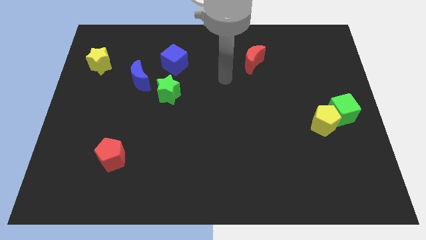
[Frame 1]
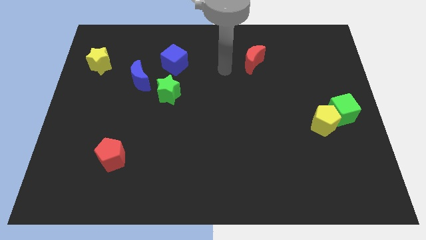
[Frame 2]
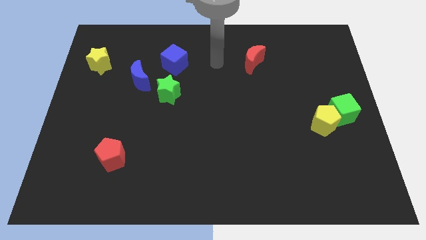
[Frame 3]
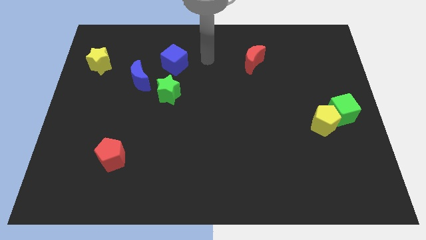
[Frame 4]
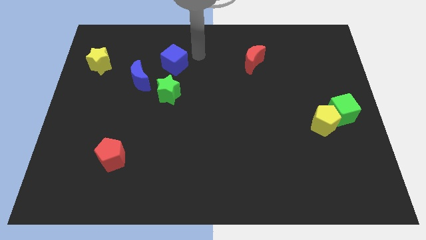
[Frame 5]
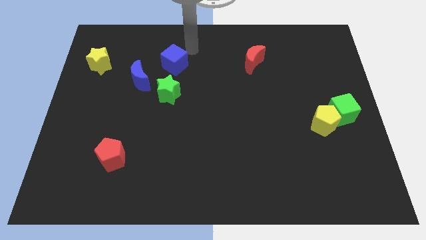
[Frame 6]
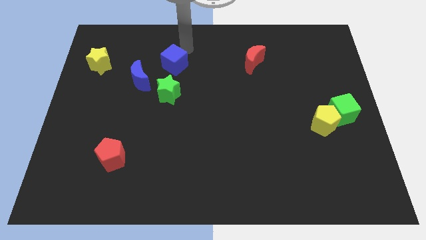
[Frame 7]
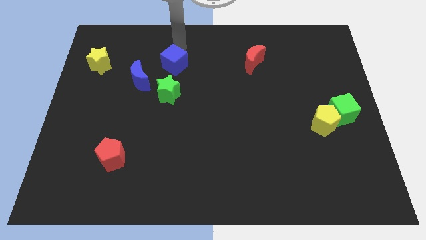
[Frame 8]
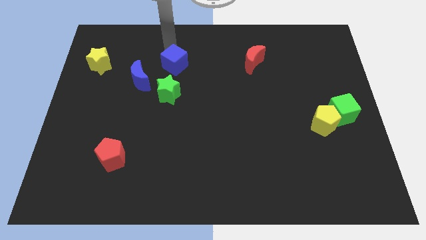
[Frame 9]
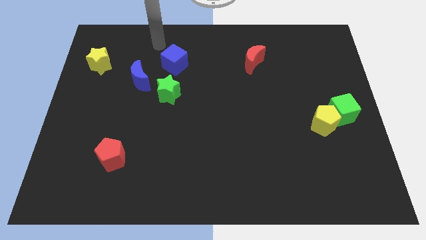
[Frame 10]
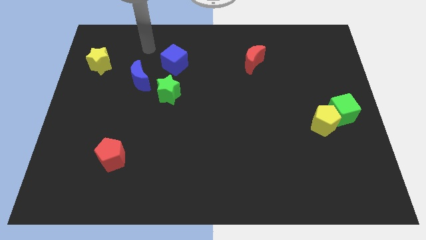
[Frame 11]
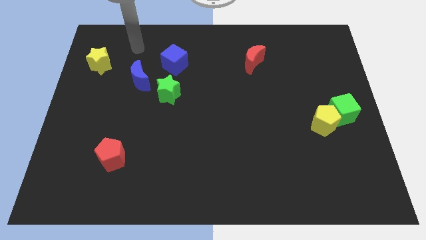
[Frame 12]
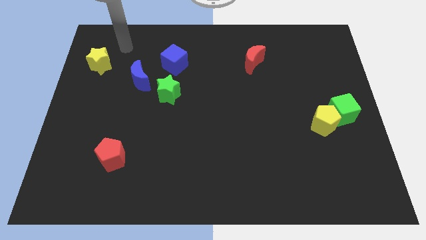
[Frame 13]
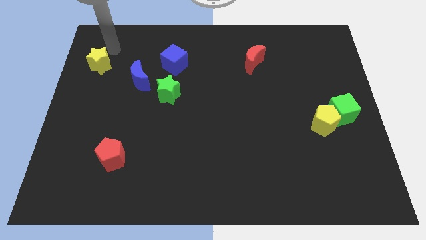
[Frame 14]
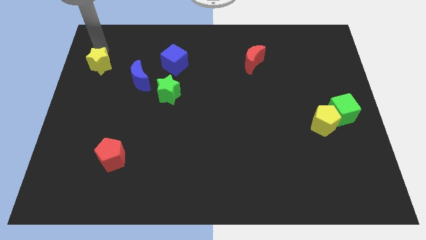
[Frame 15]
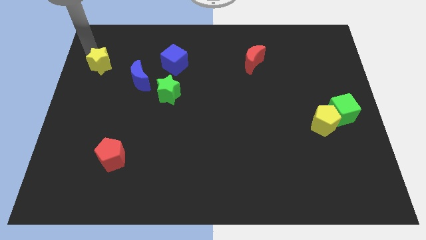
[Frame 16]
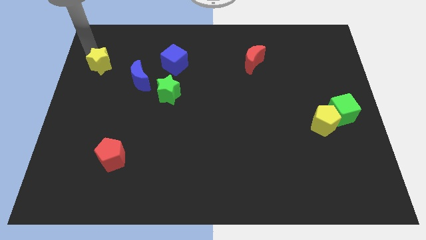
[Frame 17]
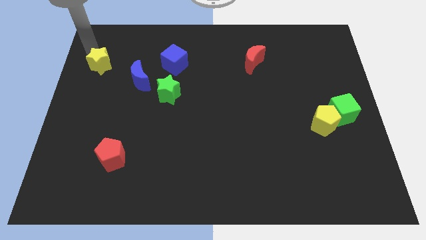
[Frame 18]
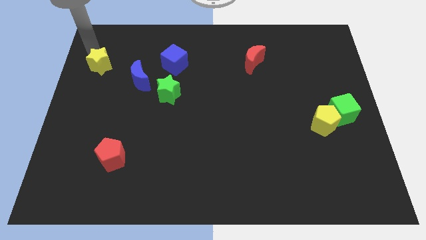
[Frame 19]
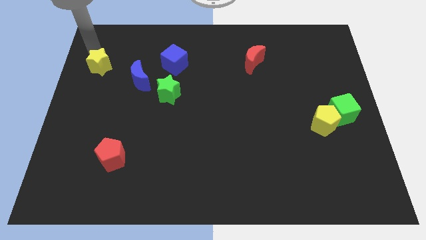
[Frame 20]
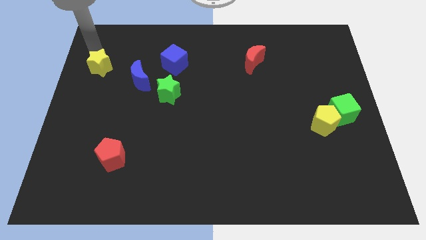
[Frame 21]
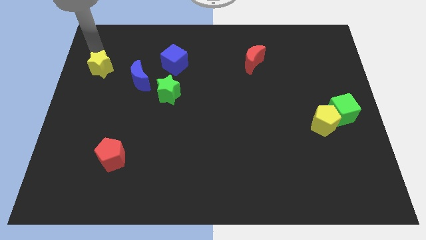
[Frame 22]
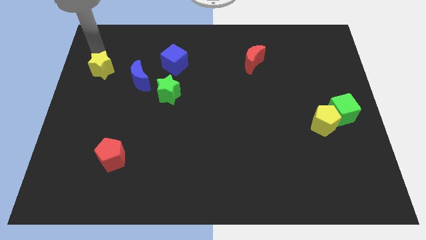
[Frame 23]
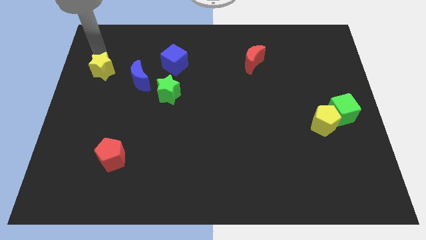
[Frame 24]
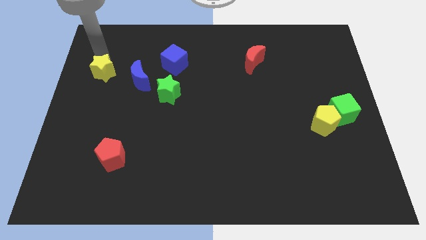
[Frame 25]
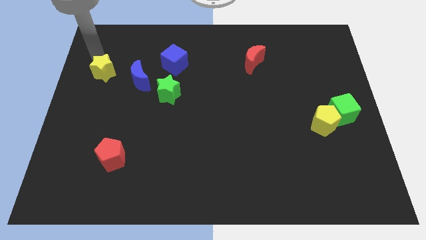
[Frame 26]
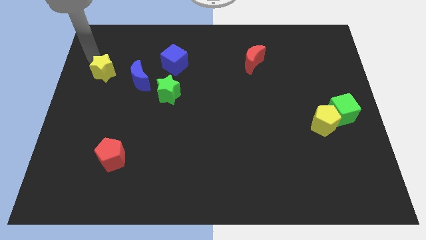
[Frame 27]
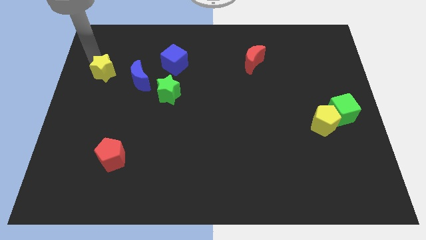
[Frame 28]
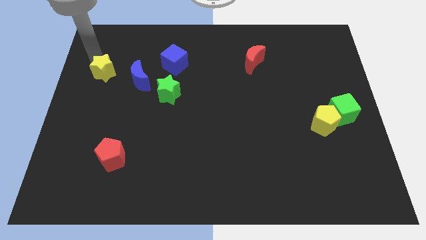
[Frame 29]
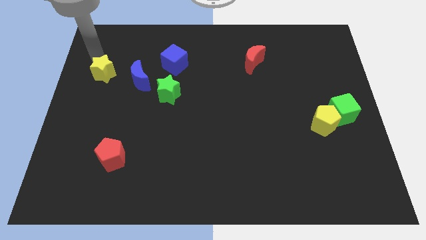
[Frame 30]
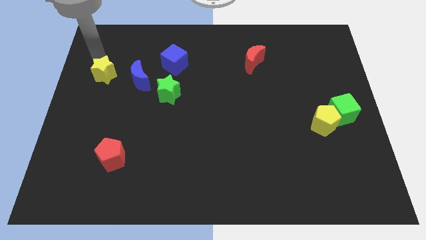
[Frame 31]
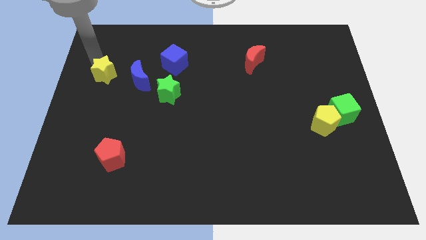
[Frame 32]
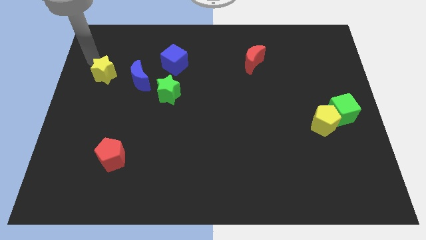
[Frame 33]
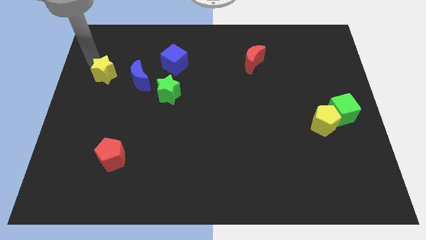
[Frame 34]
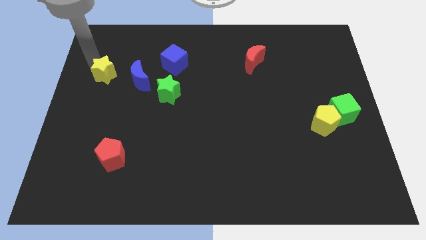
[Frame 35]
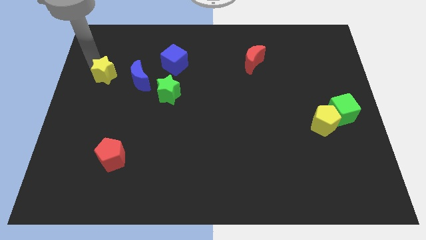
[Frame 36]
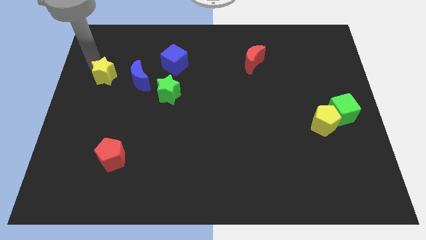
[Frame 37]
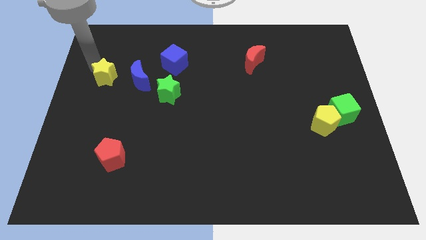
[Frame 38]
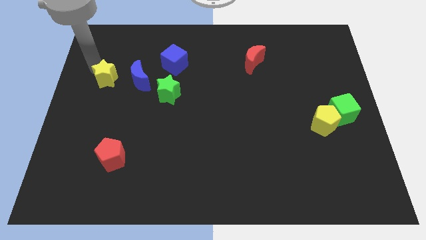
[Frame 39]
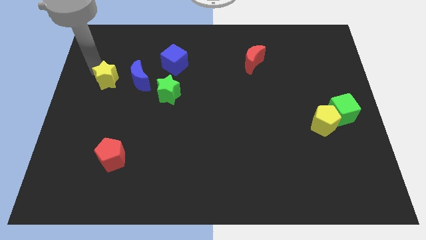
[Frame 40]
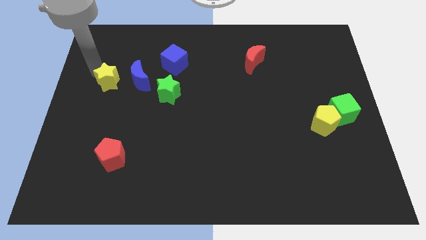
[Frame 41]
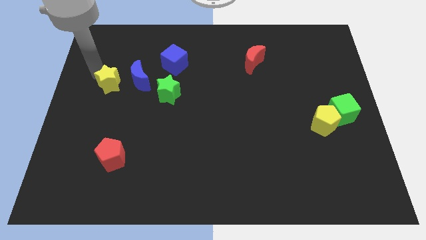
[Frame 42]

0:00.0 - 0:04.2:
slightly push the yellow star diagonally down and to the right

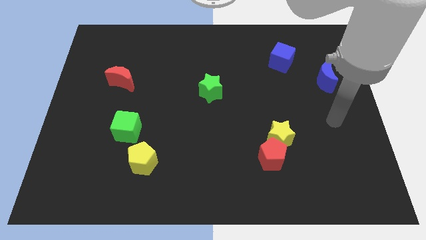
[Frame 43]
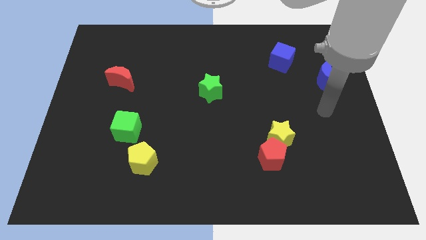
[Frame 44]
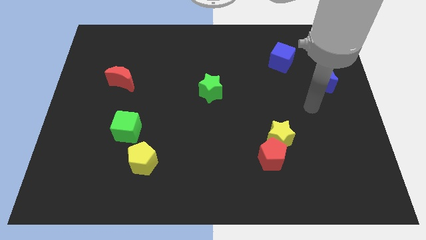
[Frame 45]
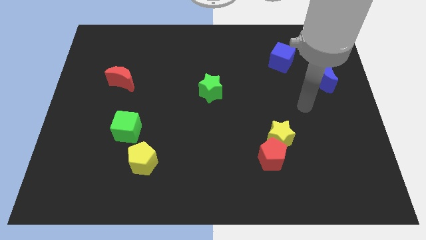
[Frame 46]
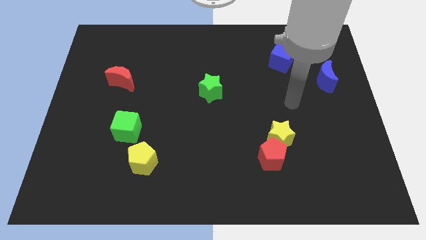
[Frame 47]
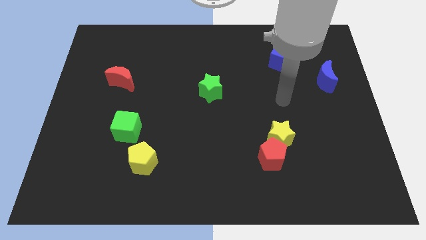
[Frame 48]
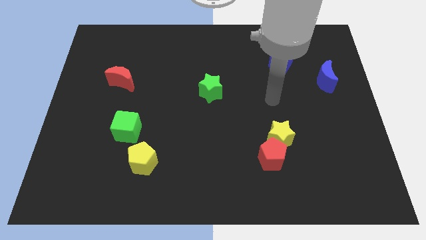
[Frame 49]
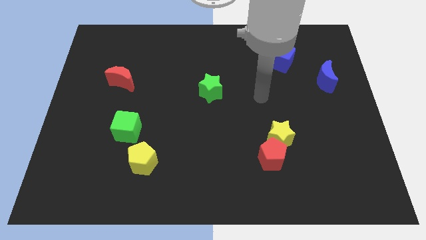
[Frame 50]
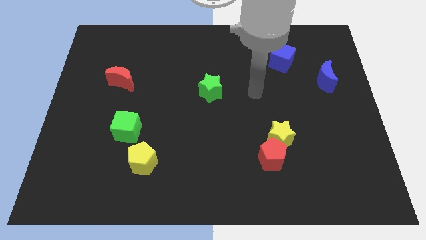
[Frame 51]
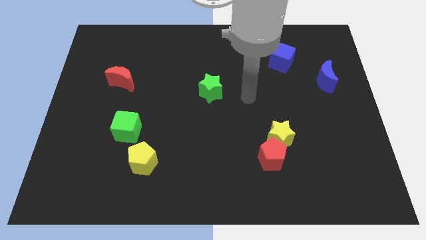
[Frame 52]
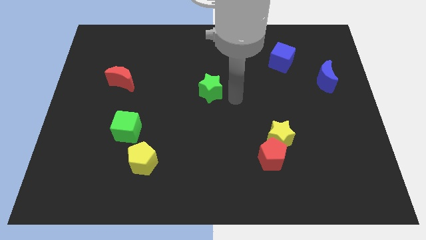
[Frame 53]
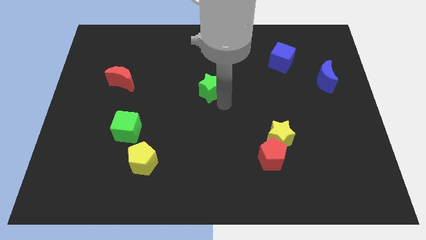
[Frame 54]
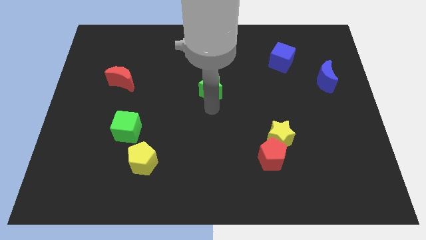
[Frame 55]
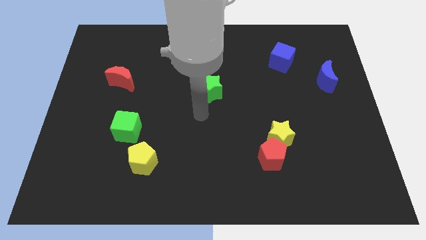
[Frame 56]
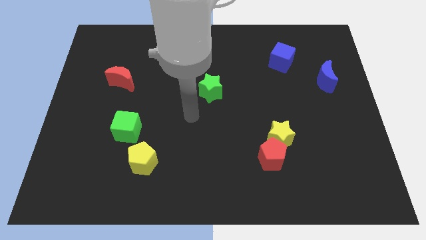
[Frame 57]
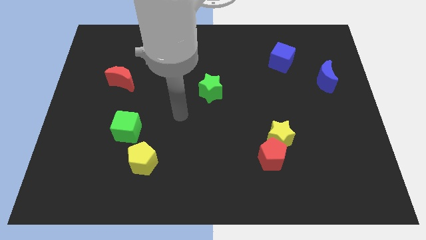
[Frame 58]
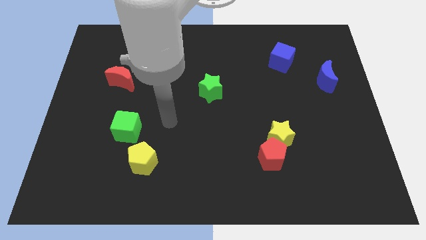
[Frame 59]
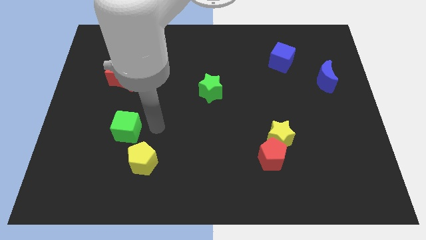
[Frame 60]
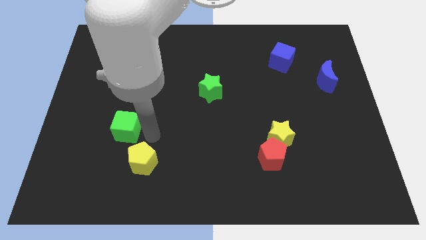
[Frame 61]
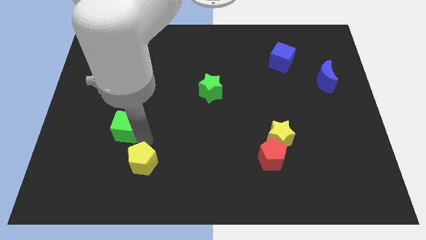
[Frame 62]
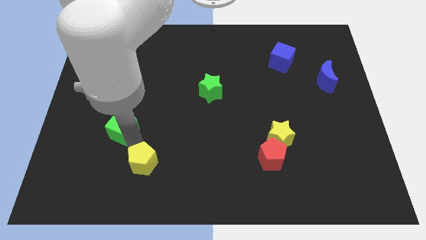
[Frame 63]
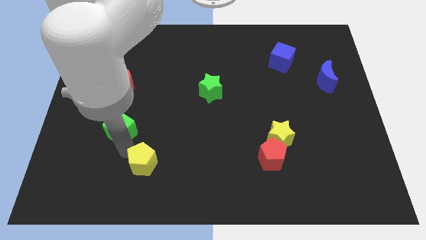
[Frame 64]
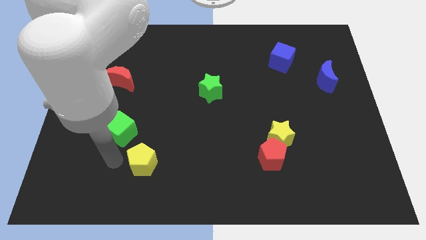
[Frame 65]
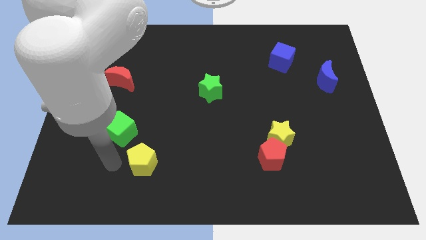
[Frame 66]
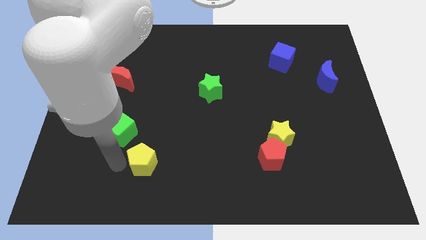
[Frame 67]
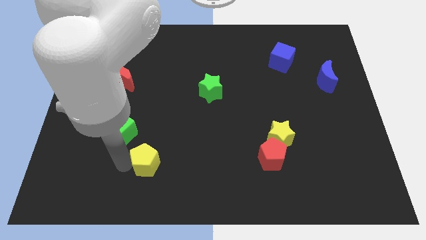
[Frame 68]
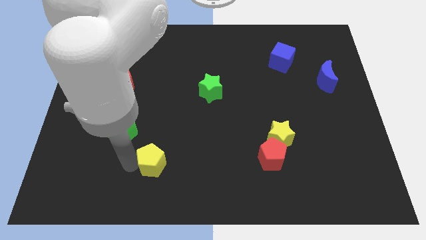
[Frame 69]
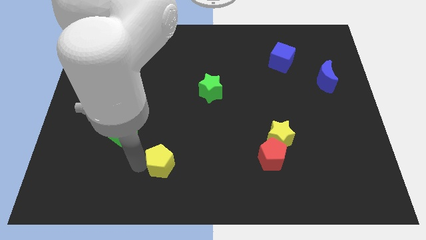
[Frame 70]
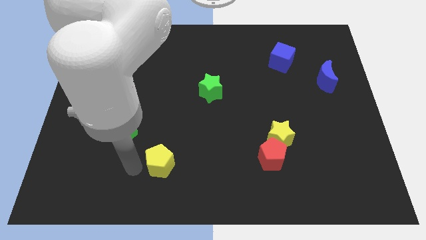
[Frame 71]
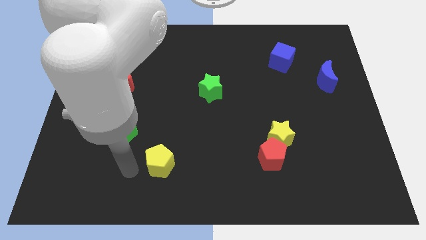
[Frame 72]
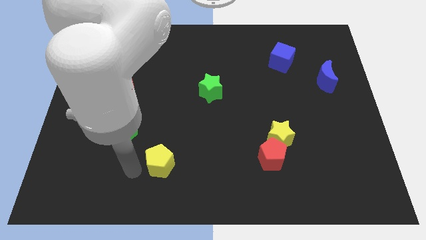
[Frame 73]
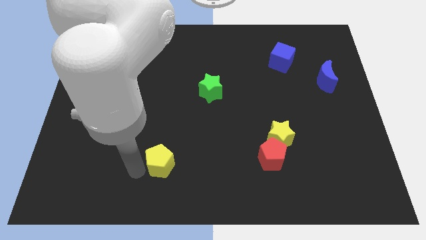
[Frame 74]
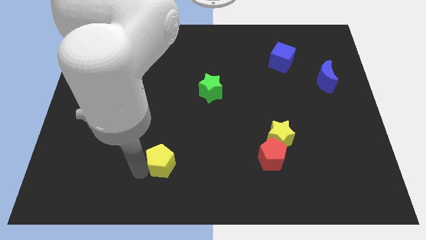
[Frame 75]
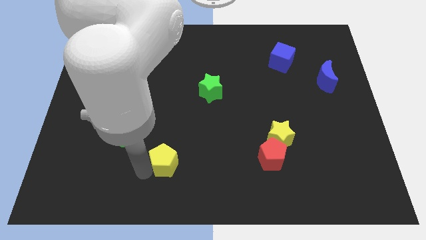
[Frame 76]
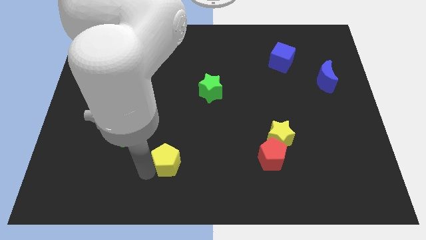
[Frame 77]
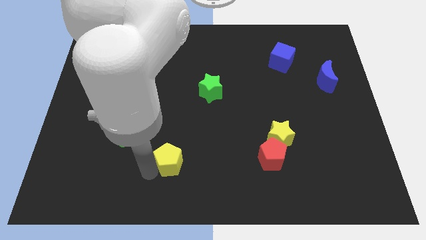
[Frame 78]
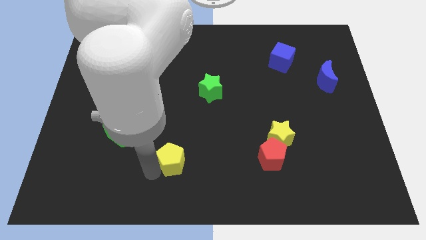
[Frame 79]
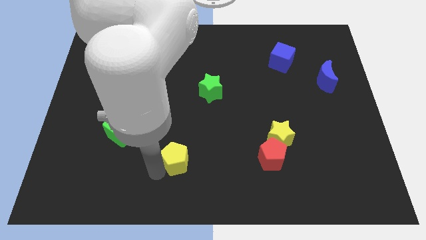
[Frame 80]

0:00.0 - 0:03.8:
slightly move the yellow pentagon to the right
